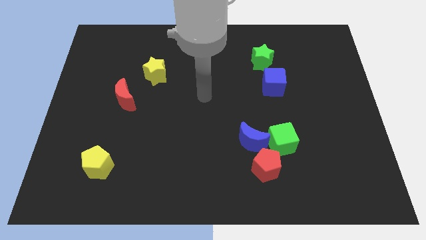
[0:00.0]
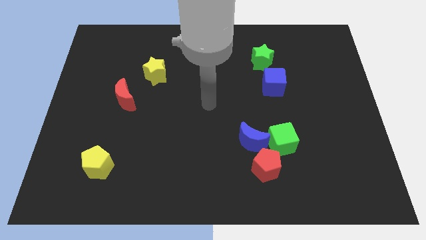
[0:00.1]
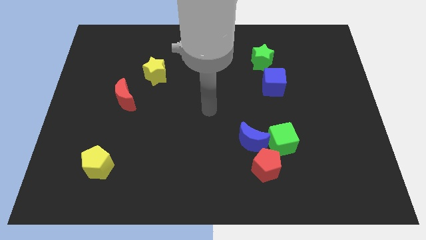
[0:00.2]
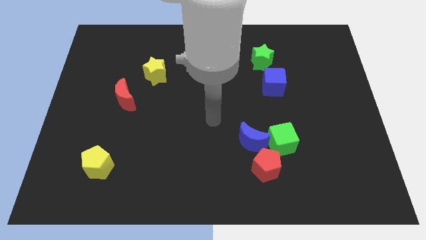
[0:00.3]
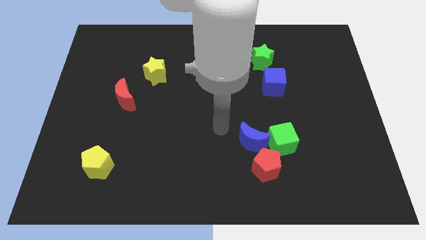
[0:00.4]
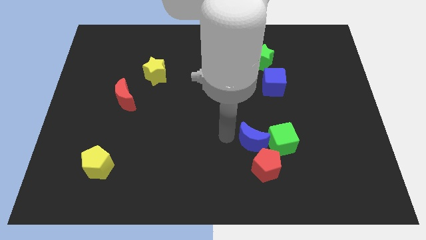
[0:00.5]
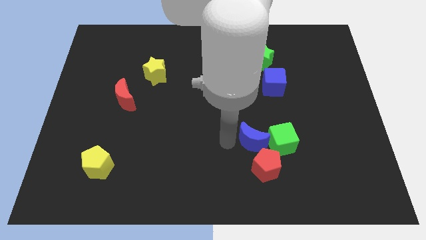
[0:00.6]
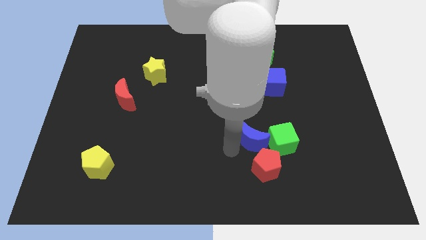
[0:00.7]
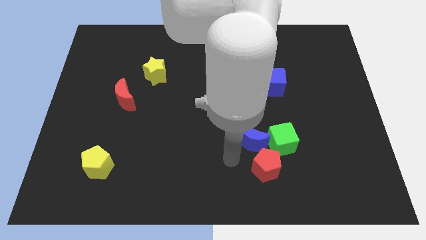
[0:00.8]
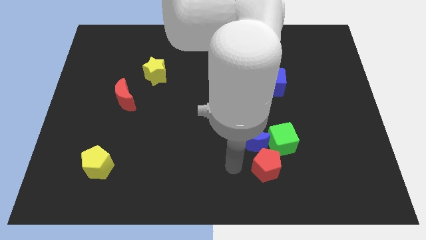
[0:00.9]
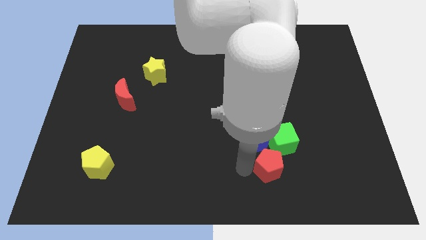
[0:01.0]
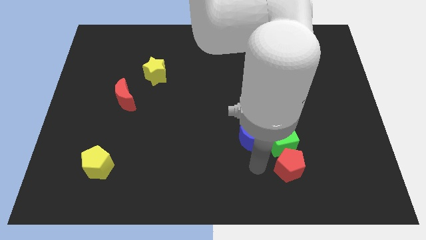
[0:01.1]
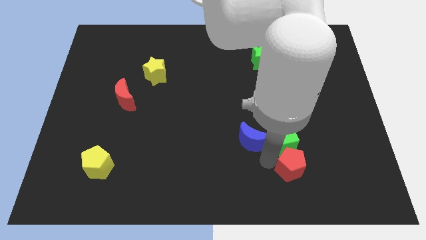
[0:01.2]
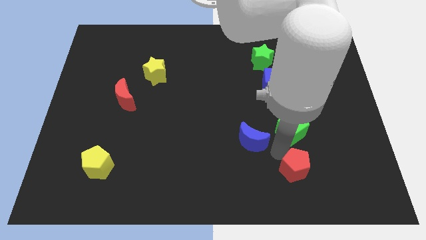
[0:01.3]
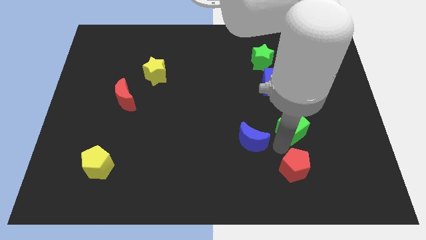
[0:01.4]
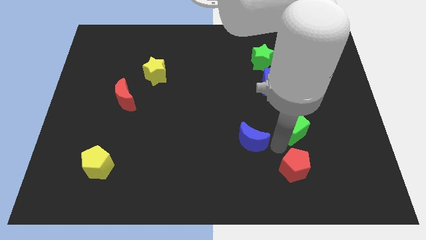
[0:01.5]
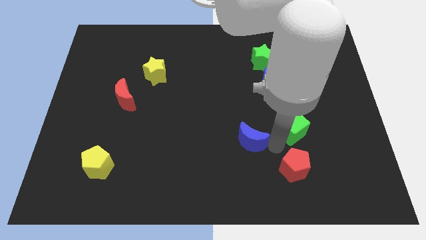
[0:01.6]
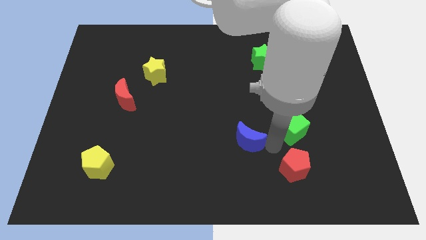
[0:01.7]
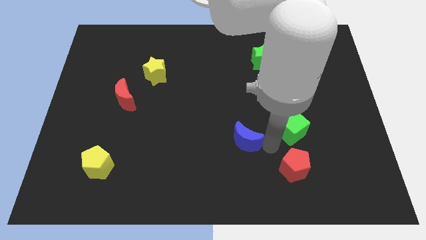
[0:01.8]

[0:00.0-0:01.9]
move the blue moon away from the green cube and red pentagon

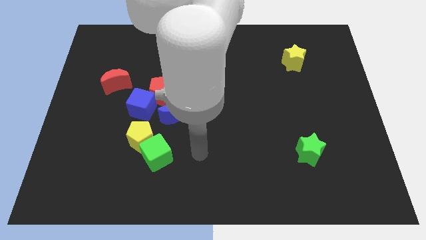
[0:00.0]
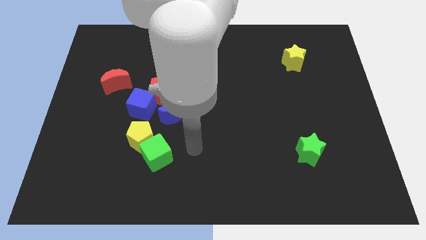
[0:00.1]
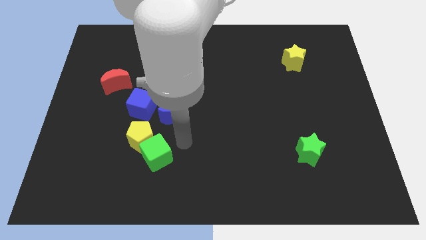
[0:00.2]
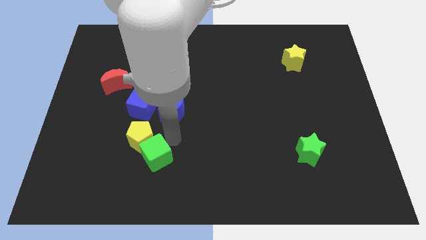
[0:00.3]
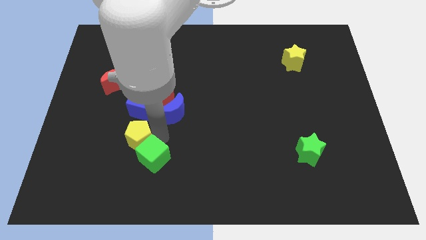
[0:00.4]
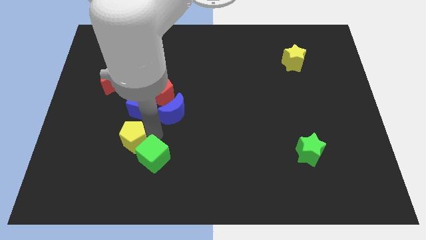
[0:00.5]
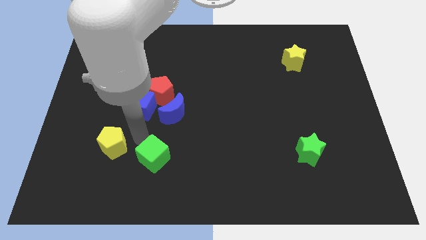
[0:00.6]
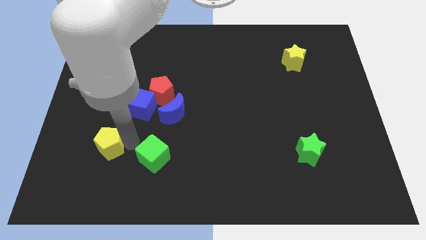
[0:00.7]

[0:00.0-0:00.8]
move the green cube away from the yellow pentagon

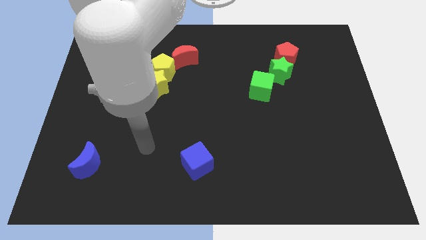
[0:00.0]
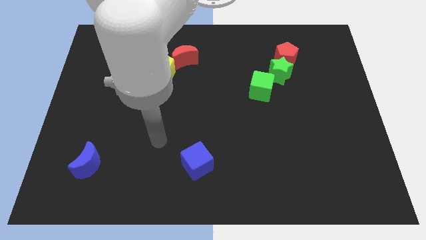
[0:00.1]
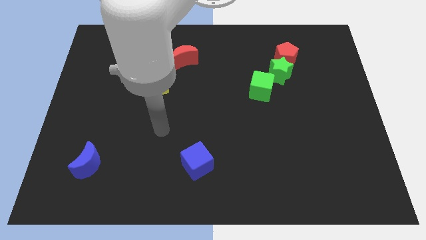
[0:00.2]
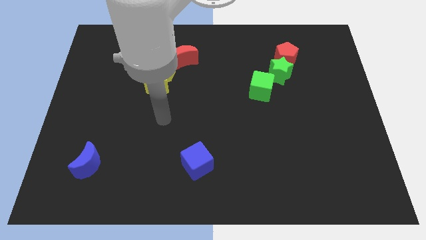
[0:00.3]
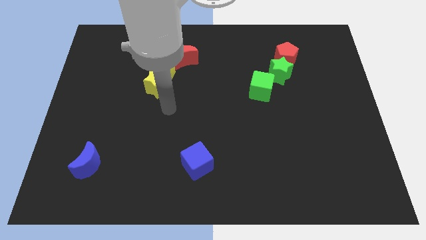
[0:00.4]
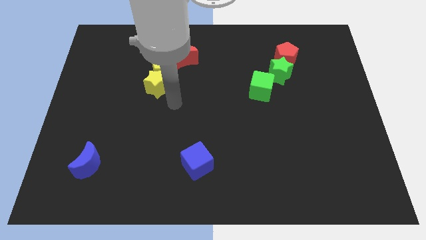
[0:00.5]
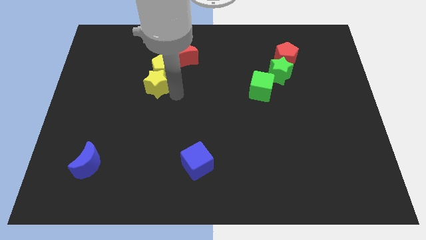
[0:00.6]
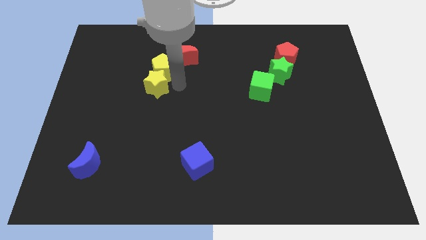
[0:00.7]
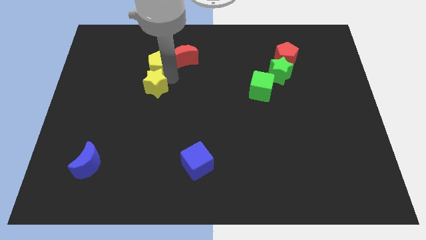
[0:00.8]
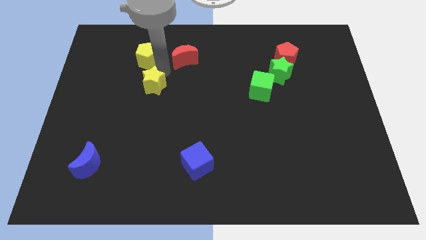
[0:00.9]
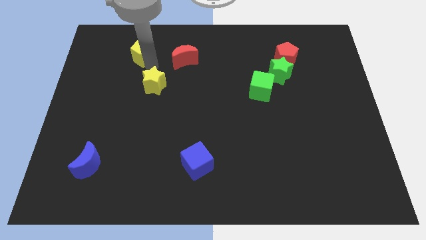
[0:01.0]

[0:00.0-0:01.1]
move the yellow star away from the yellow pentagon

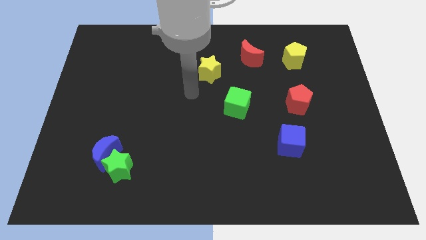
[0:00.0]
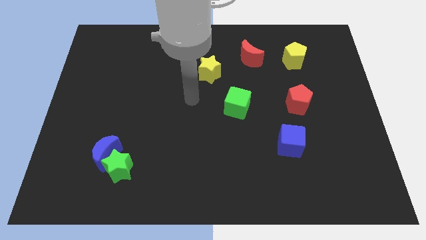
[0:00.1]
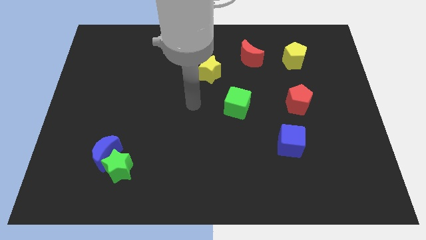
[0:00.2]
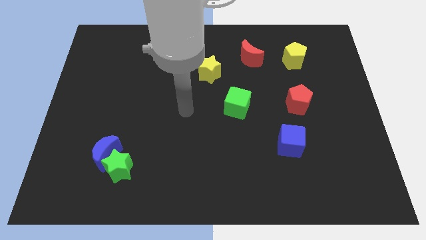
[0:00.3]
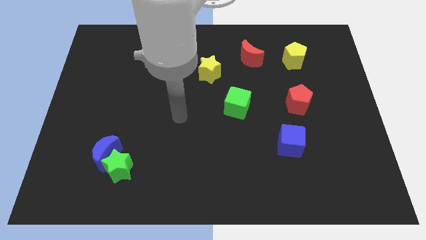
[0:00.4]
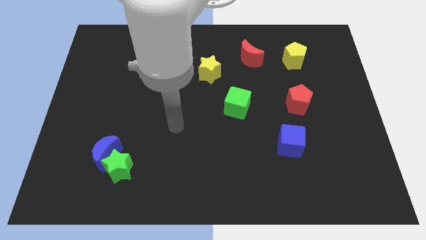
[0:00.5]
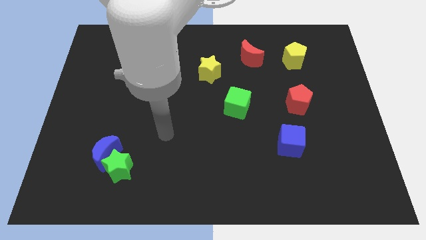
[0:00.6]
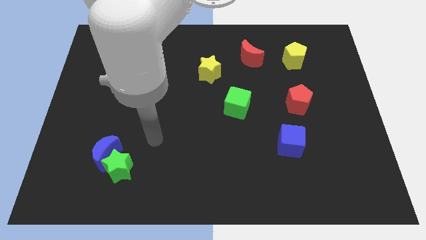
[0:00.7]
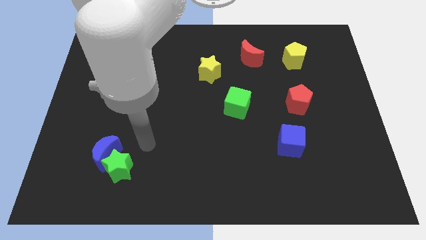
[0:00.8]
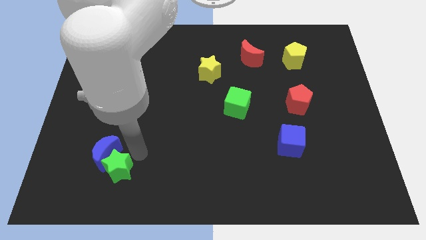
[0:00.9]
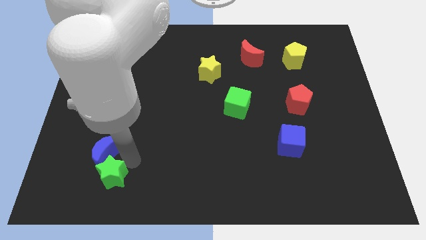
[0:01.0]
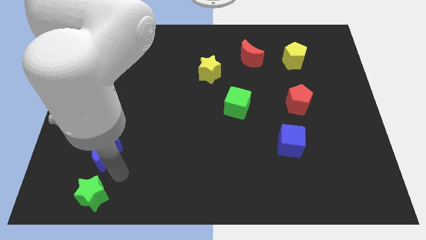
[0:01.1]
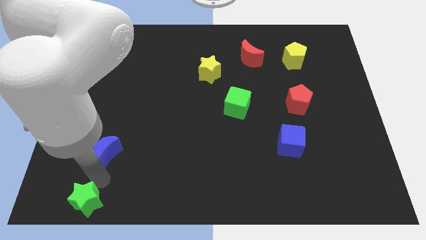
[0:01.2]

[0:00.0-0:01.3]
separate the blue moon from the green star

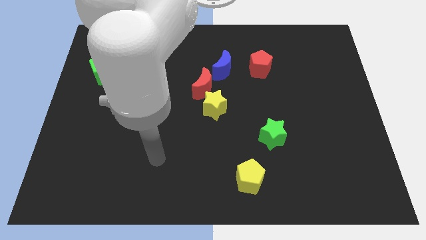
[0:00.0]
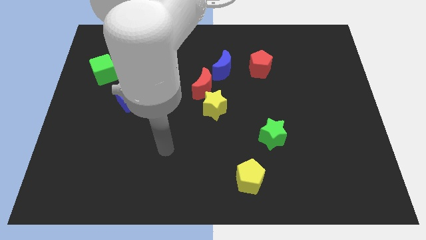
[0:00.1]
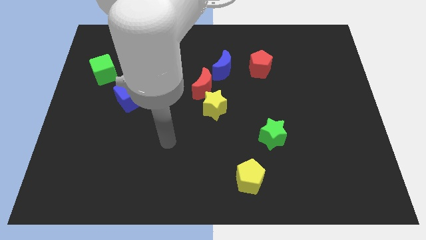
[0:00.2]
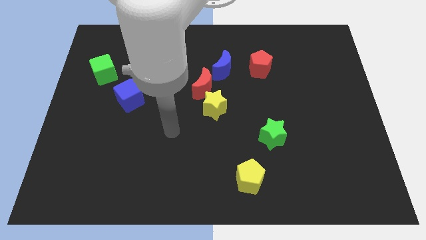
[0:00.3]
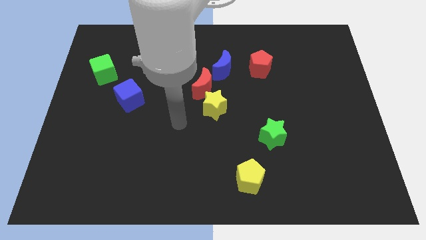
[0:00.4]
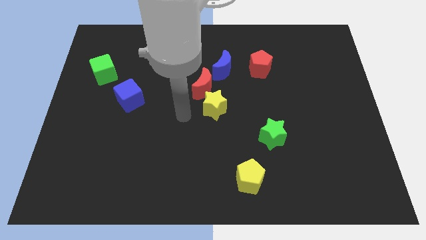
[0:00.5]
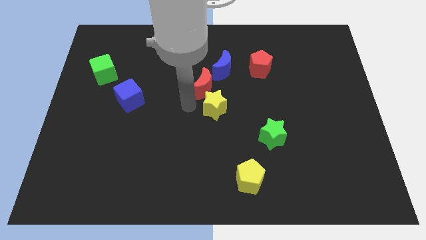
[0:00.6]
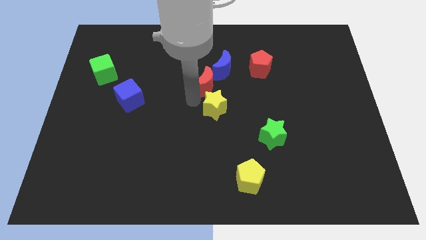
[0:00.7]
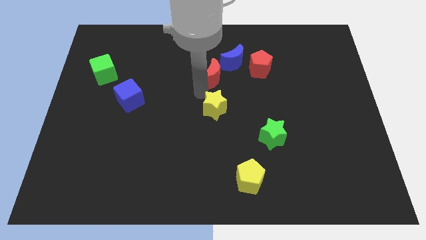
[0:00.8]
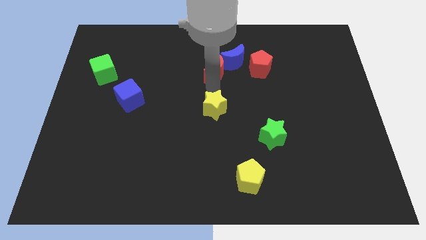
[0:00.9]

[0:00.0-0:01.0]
move the yellow star away from the red moon
